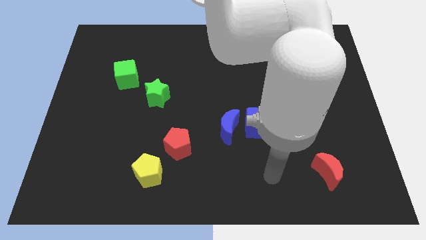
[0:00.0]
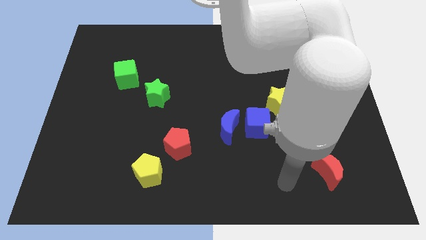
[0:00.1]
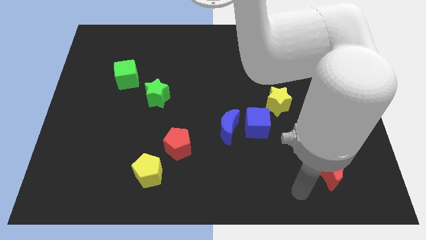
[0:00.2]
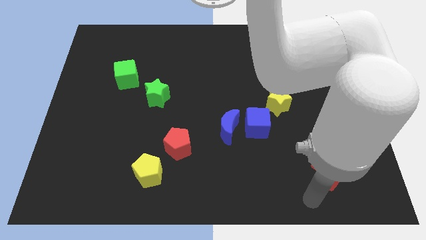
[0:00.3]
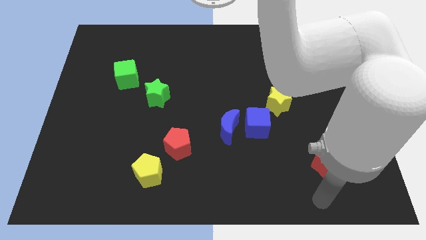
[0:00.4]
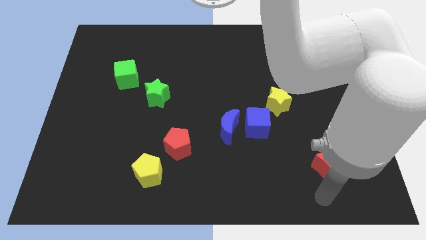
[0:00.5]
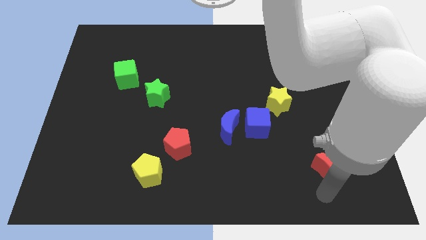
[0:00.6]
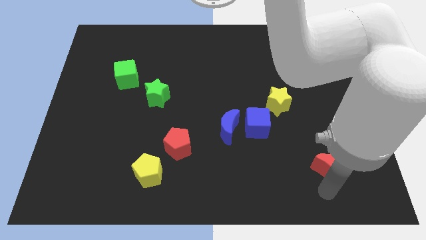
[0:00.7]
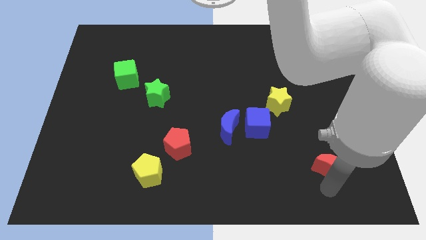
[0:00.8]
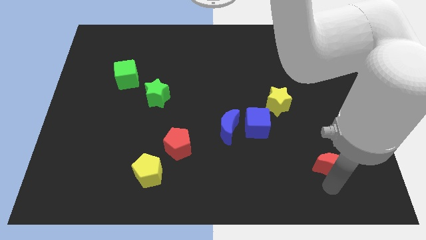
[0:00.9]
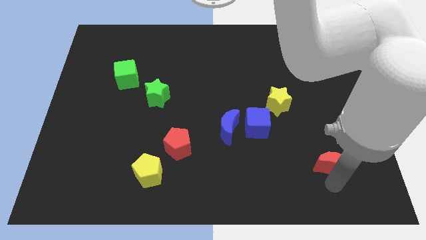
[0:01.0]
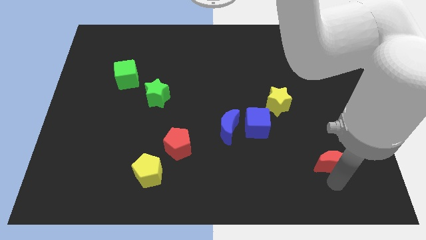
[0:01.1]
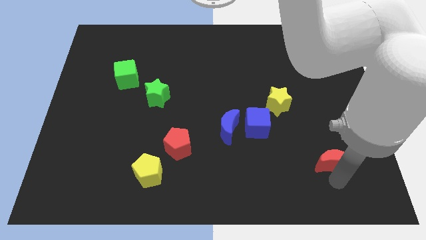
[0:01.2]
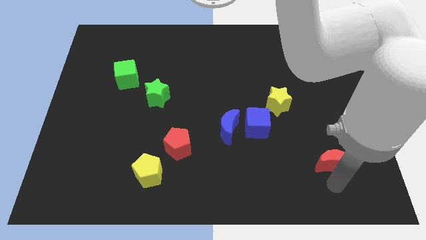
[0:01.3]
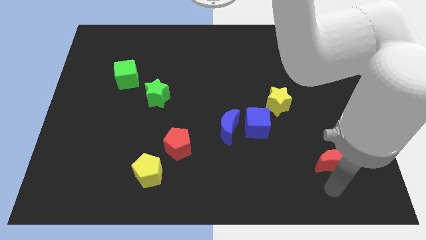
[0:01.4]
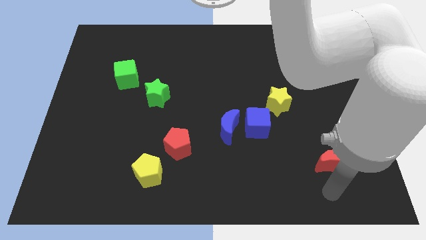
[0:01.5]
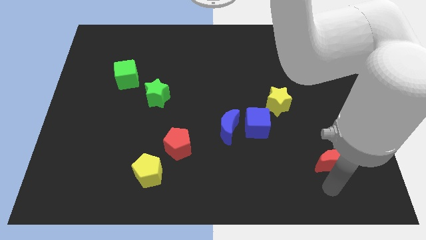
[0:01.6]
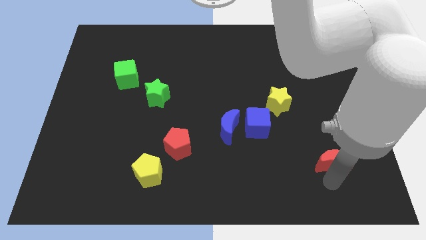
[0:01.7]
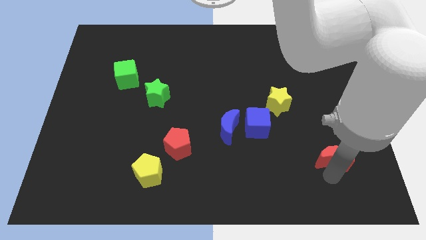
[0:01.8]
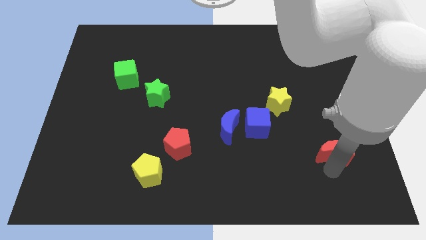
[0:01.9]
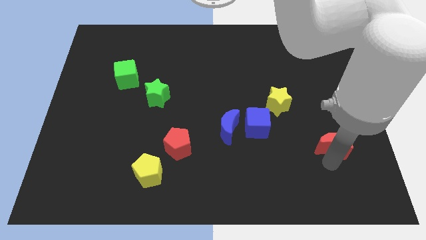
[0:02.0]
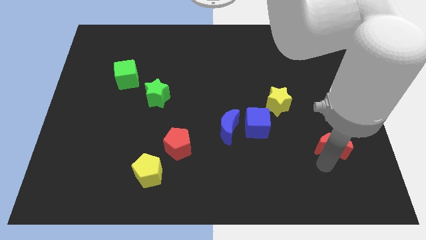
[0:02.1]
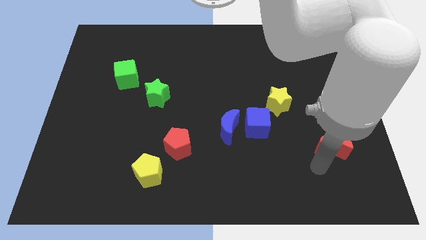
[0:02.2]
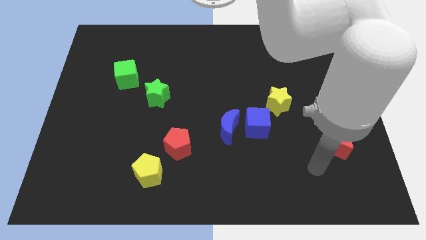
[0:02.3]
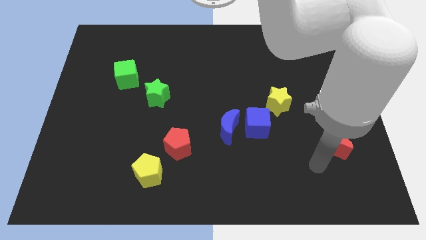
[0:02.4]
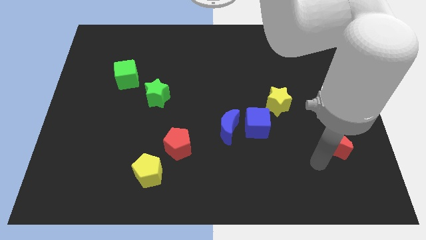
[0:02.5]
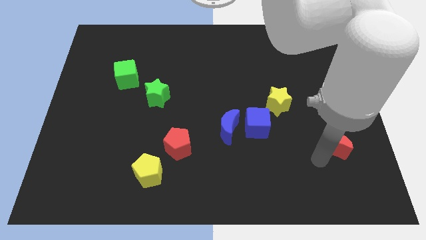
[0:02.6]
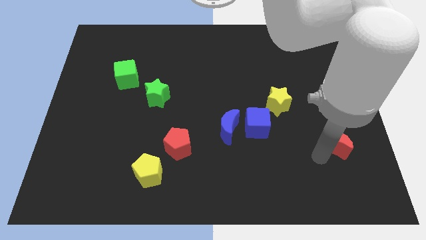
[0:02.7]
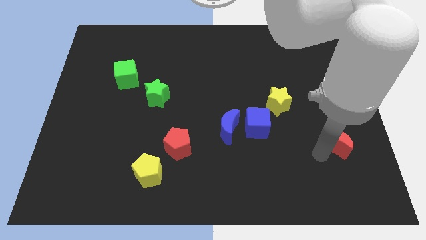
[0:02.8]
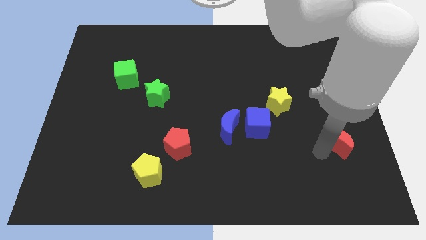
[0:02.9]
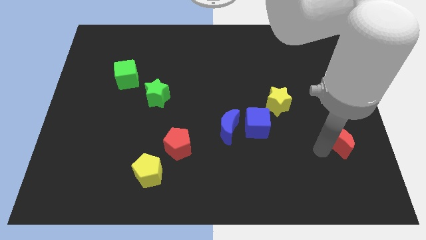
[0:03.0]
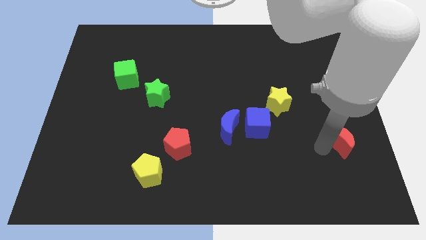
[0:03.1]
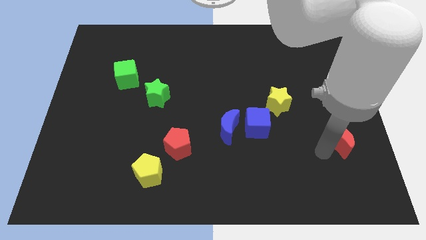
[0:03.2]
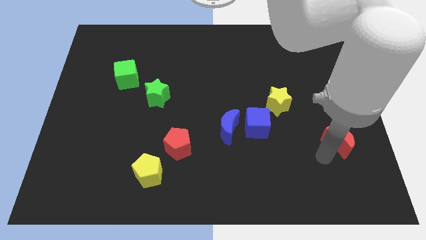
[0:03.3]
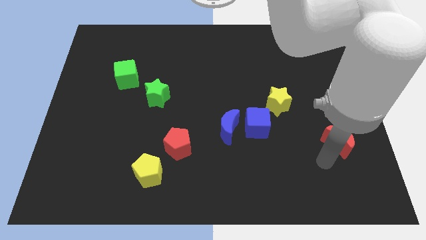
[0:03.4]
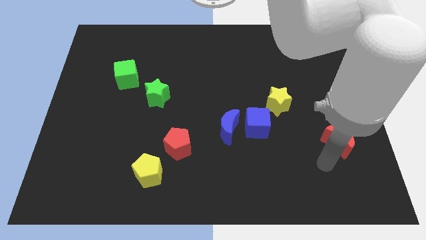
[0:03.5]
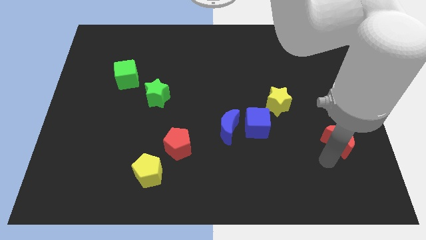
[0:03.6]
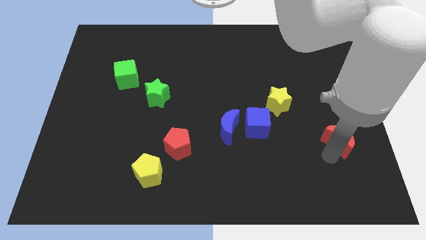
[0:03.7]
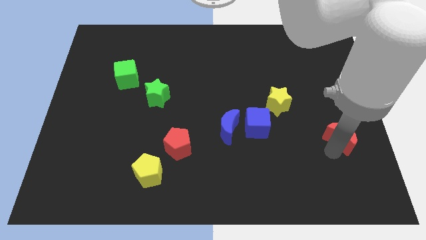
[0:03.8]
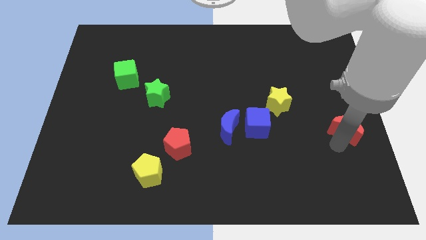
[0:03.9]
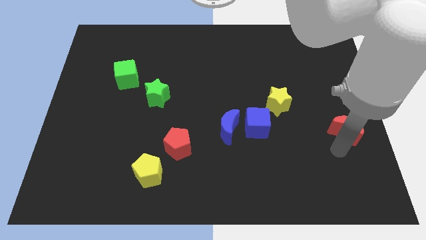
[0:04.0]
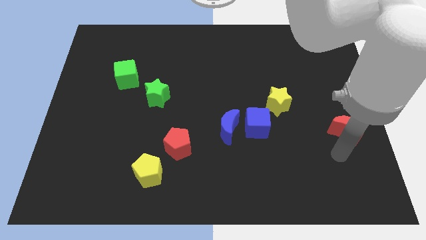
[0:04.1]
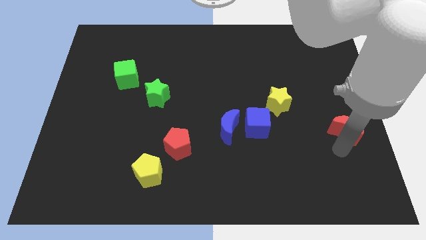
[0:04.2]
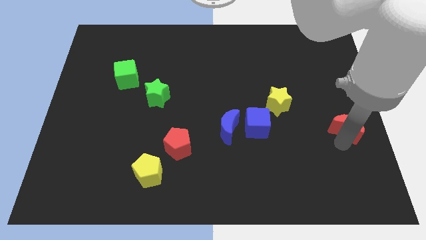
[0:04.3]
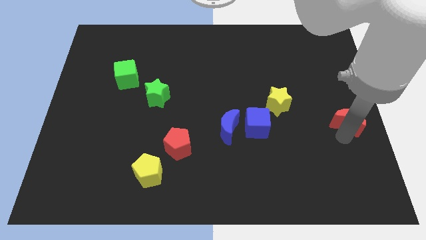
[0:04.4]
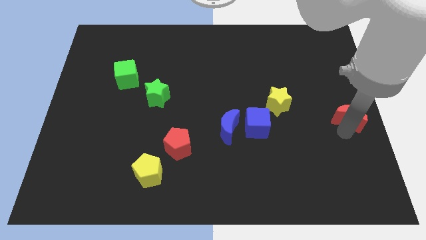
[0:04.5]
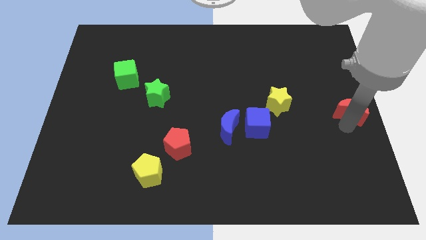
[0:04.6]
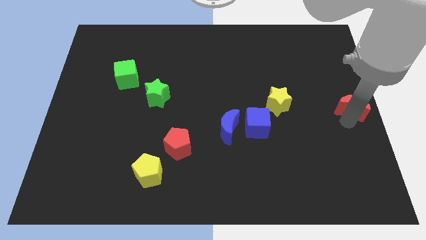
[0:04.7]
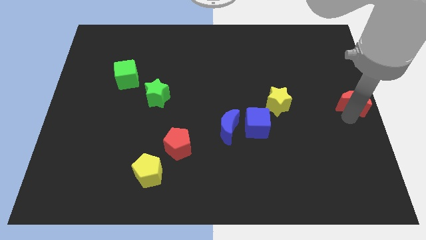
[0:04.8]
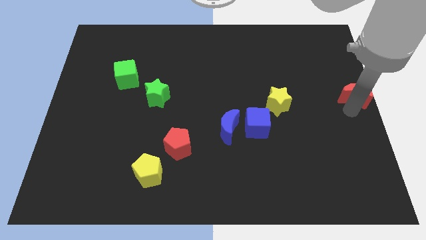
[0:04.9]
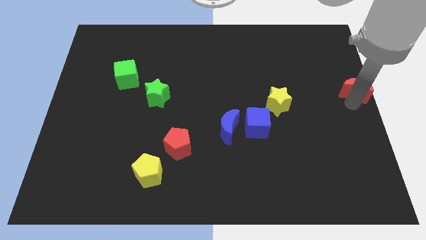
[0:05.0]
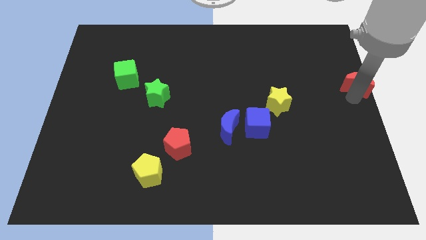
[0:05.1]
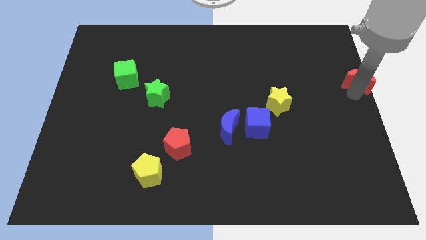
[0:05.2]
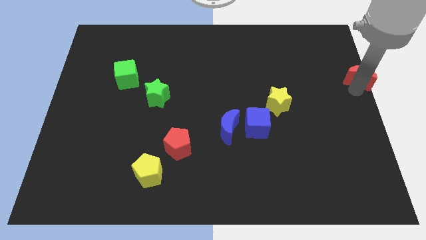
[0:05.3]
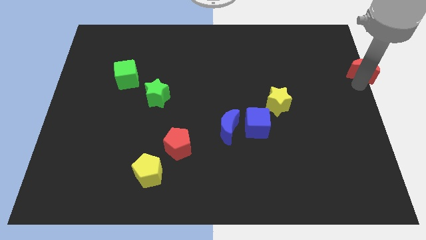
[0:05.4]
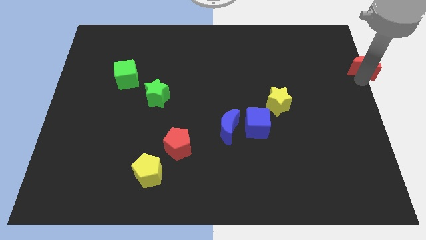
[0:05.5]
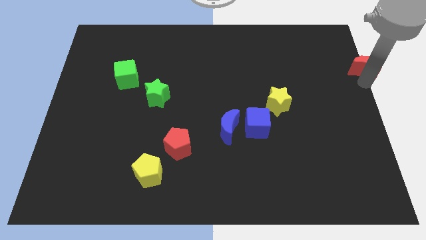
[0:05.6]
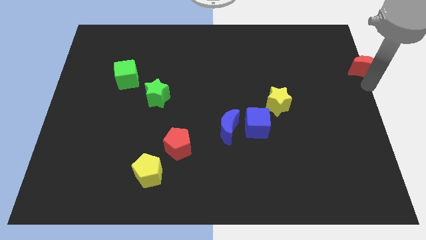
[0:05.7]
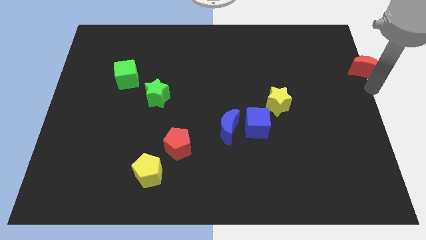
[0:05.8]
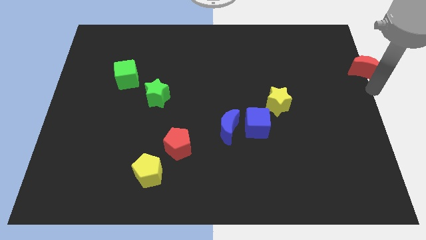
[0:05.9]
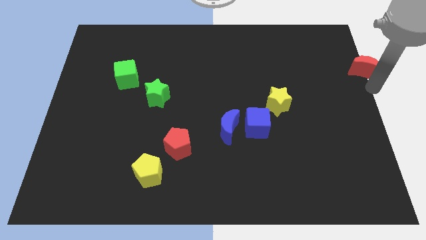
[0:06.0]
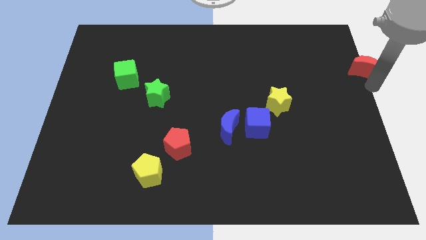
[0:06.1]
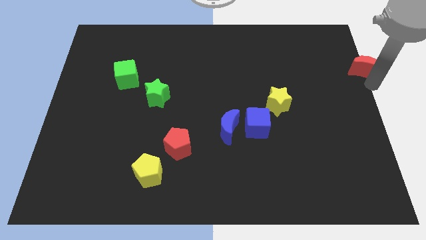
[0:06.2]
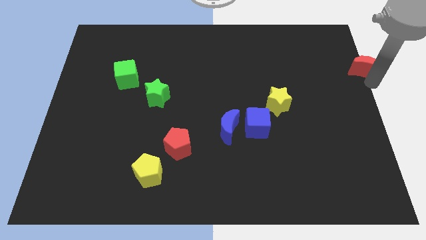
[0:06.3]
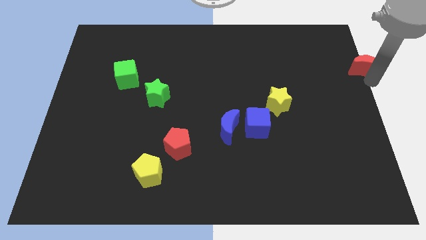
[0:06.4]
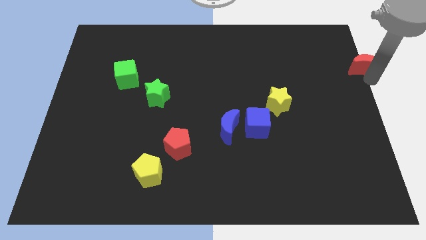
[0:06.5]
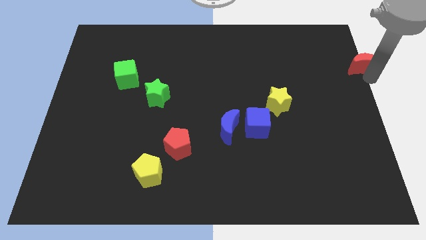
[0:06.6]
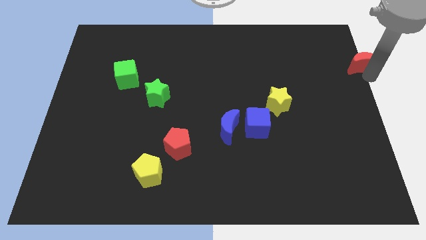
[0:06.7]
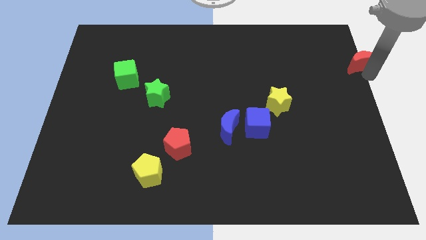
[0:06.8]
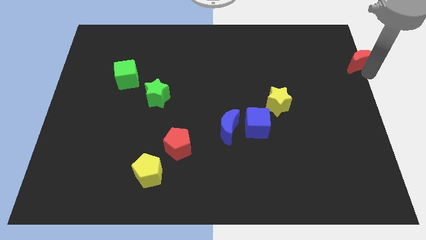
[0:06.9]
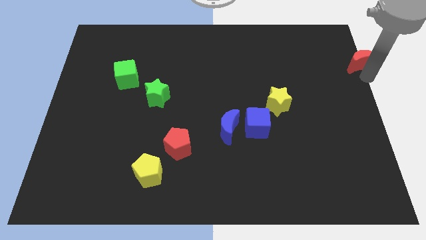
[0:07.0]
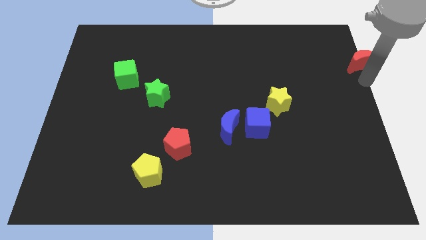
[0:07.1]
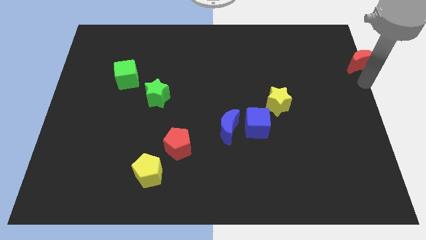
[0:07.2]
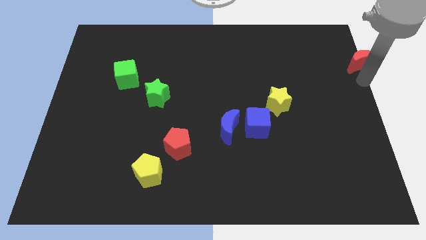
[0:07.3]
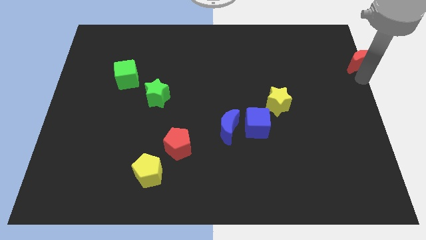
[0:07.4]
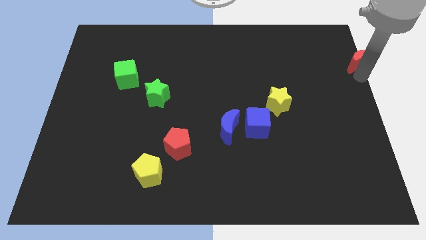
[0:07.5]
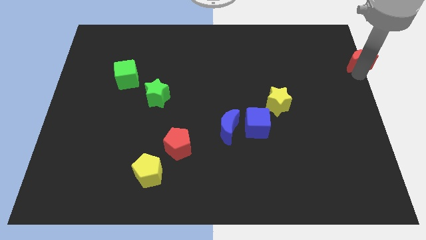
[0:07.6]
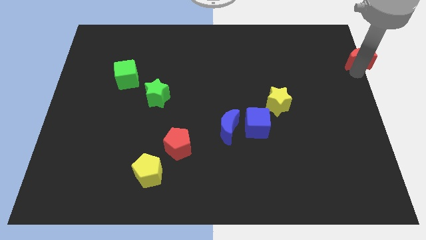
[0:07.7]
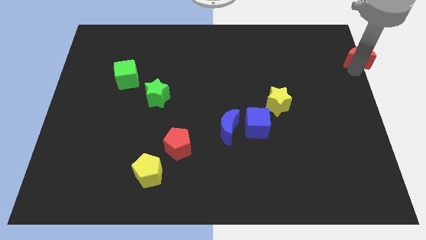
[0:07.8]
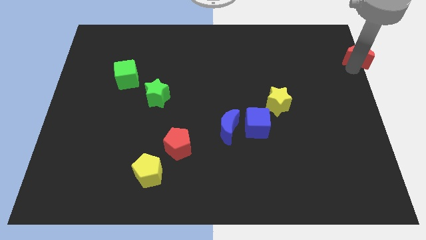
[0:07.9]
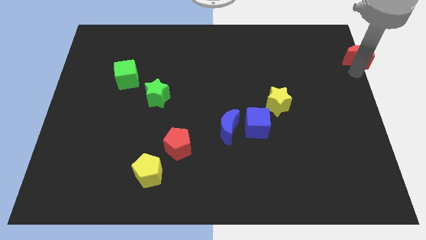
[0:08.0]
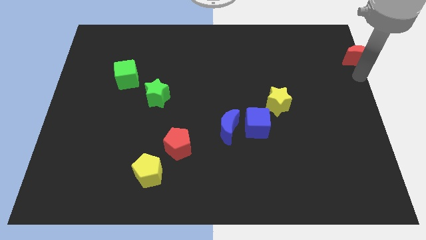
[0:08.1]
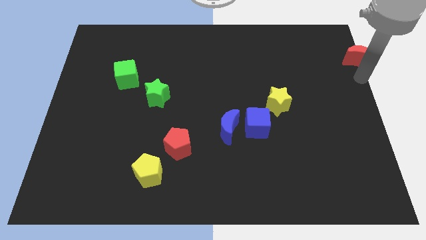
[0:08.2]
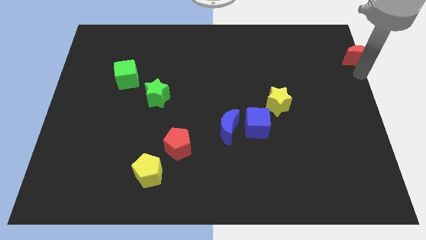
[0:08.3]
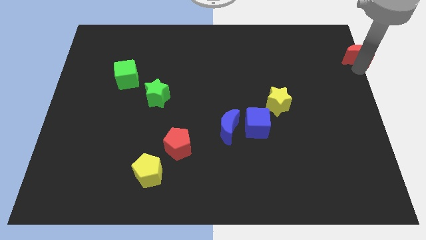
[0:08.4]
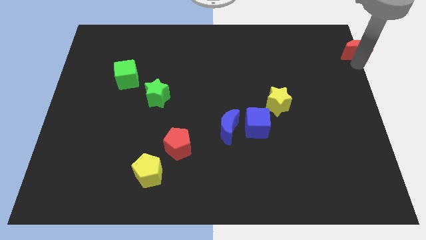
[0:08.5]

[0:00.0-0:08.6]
push the red moon to the top right
